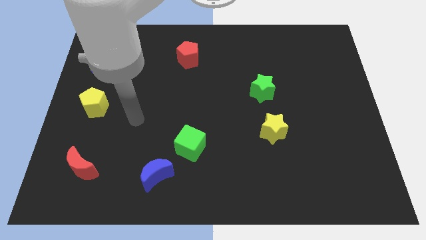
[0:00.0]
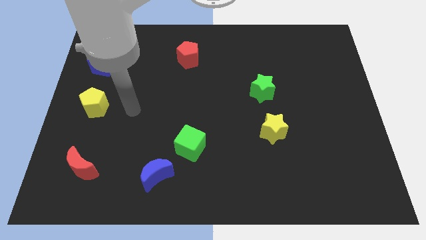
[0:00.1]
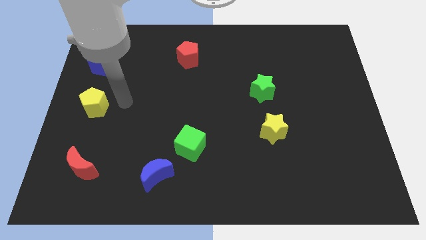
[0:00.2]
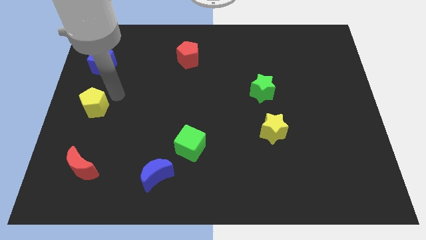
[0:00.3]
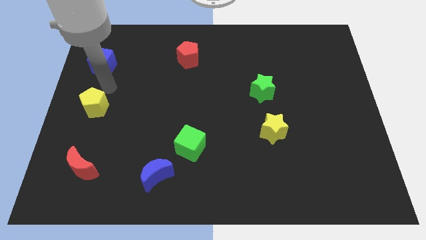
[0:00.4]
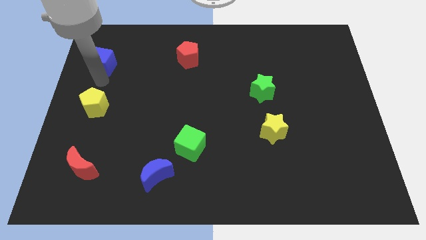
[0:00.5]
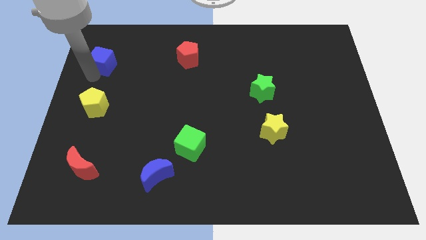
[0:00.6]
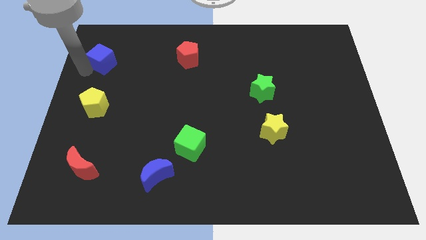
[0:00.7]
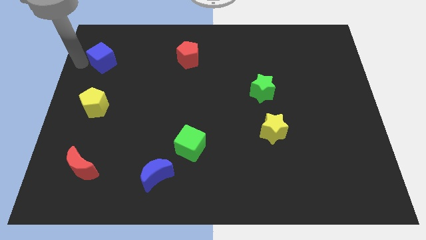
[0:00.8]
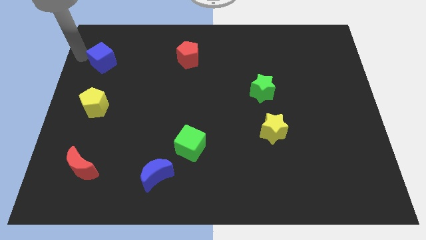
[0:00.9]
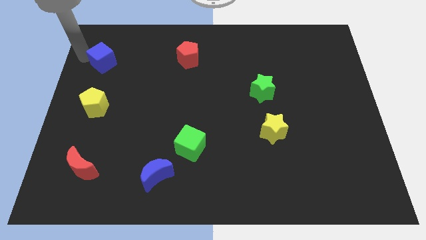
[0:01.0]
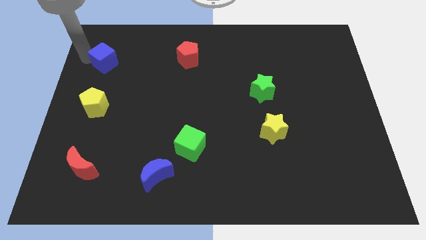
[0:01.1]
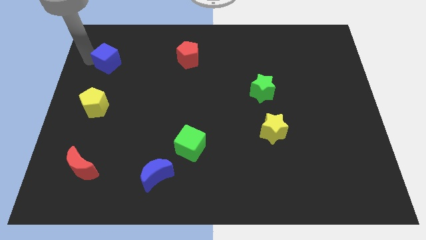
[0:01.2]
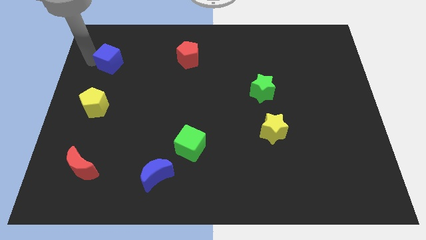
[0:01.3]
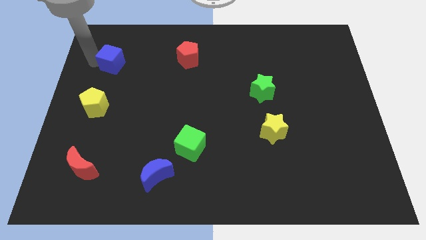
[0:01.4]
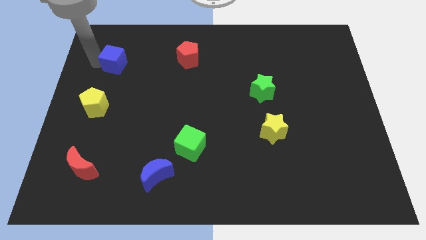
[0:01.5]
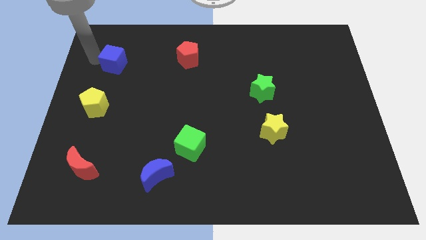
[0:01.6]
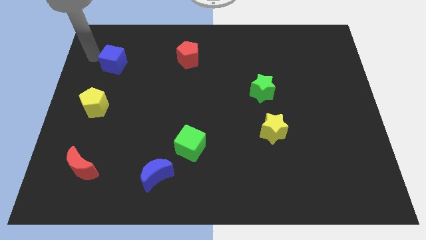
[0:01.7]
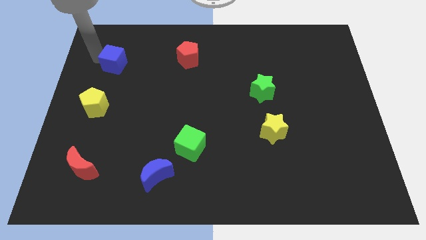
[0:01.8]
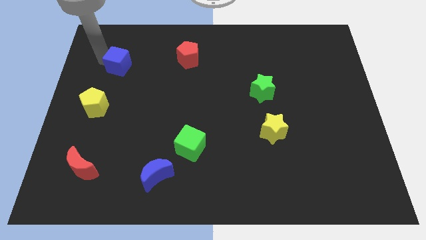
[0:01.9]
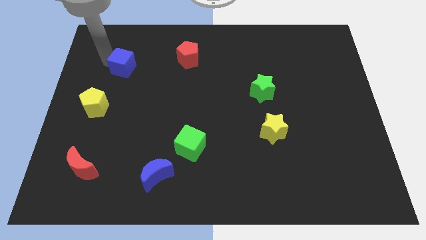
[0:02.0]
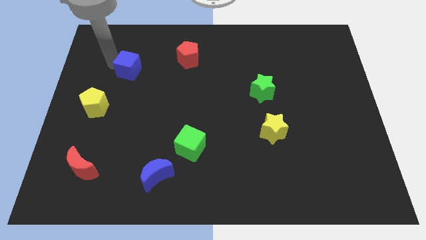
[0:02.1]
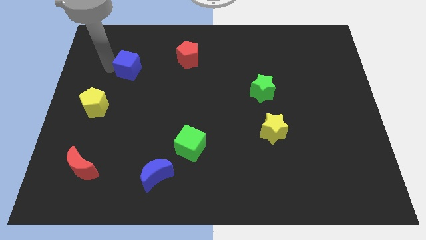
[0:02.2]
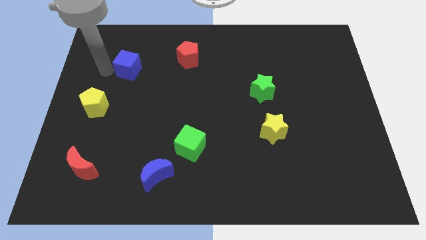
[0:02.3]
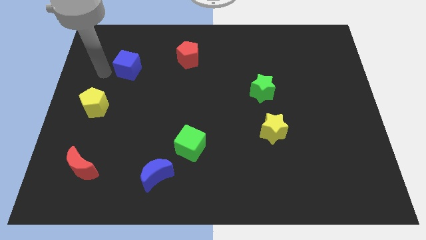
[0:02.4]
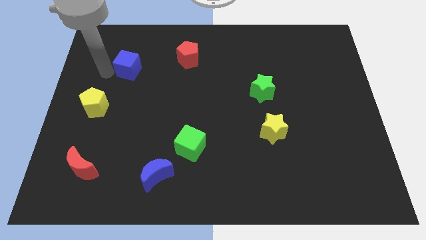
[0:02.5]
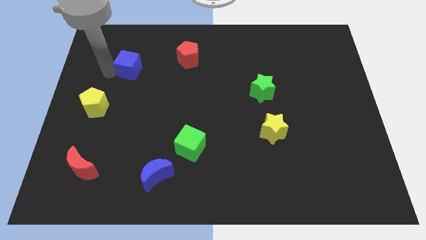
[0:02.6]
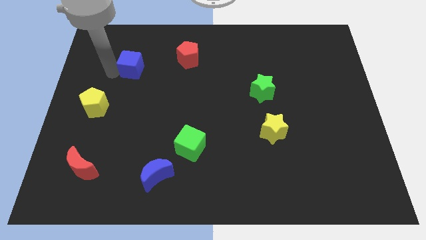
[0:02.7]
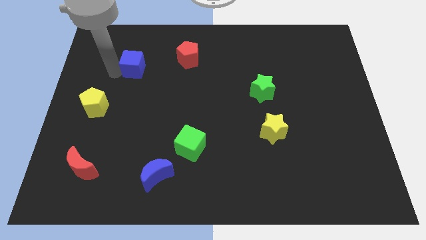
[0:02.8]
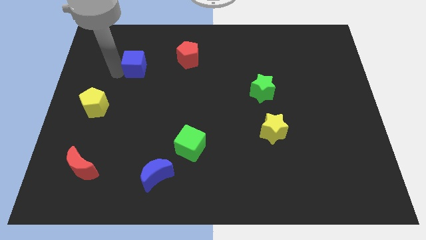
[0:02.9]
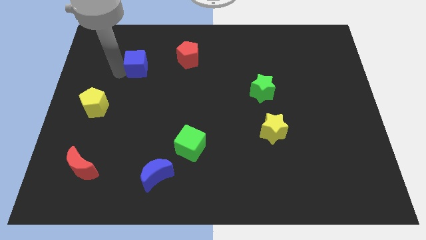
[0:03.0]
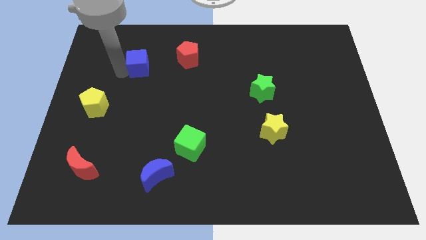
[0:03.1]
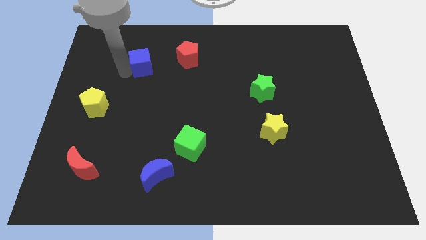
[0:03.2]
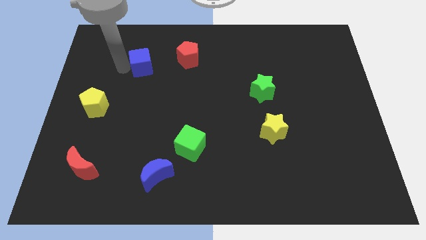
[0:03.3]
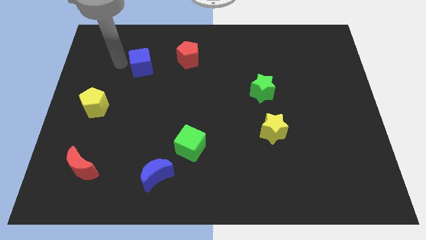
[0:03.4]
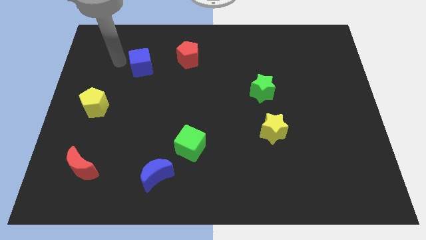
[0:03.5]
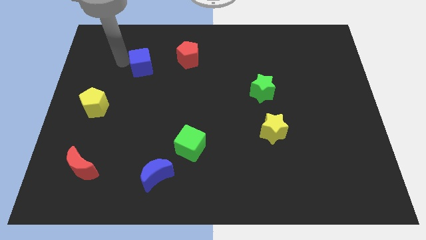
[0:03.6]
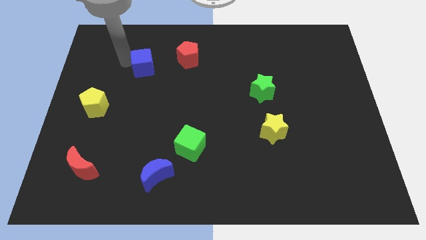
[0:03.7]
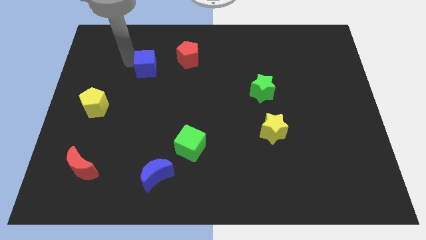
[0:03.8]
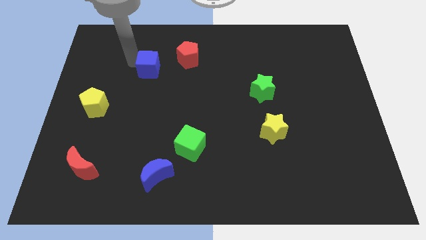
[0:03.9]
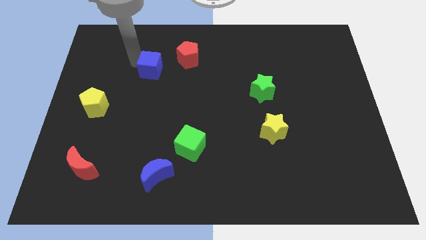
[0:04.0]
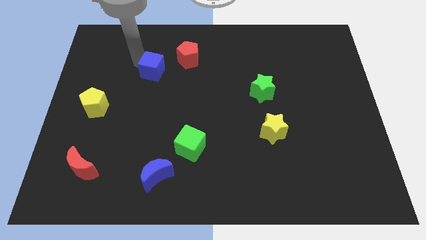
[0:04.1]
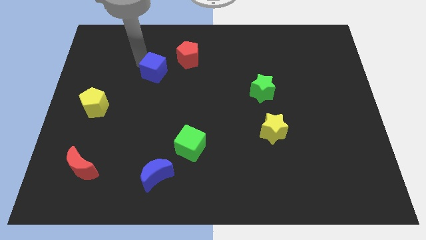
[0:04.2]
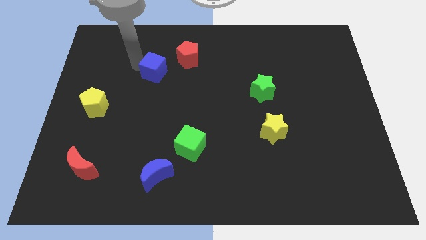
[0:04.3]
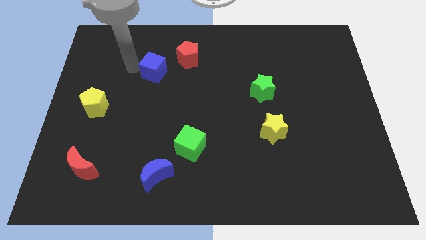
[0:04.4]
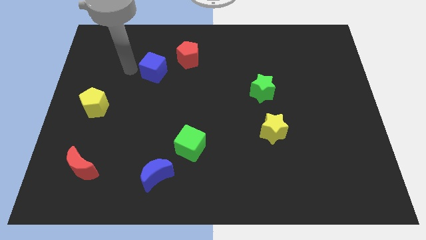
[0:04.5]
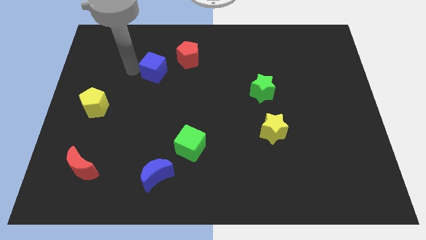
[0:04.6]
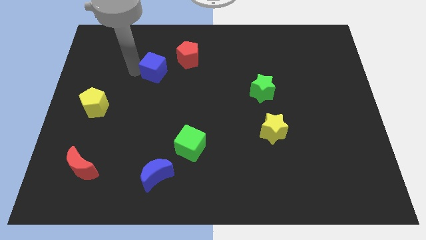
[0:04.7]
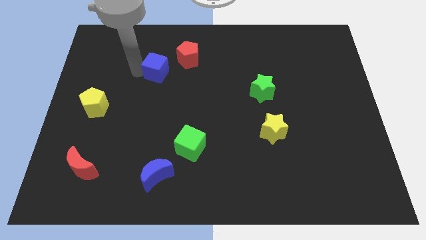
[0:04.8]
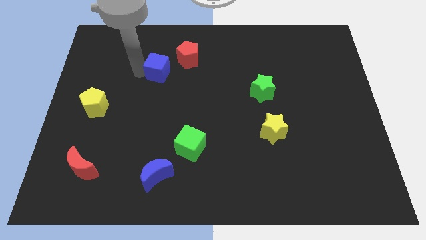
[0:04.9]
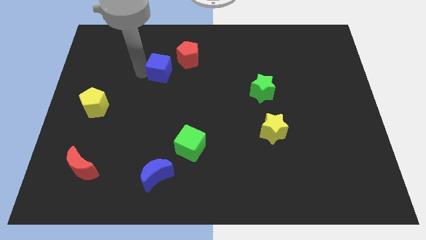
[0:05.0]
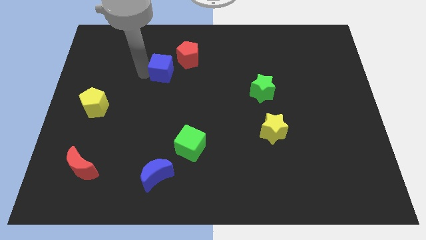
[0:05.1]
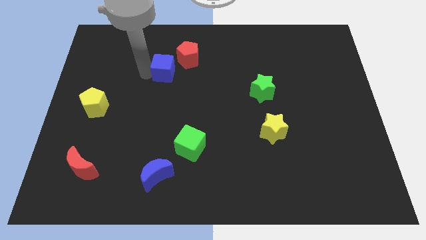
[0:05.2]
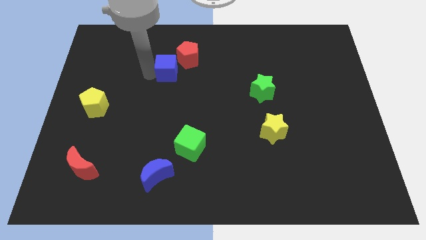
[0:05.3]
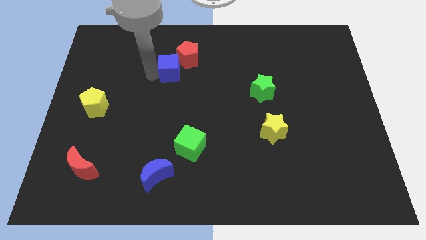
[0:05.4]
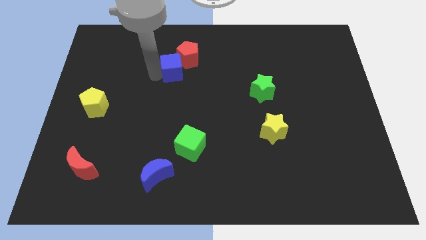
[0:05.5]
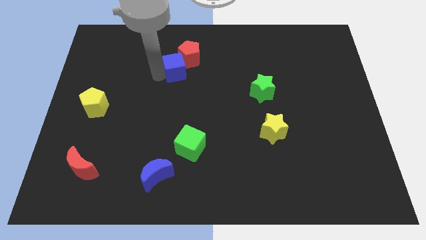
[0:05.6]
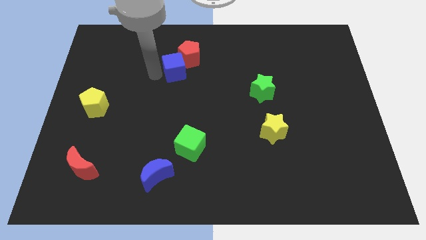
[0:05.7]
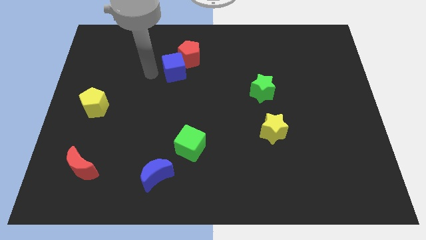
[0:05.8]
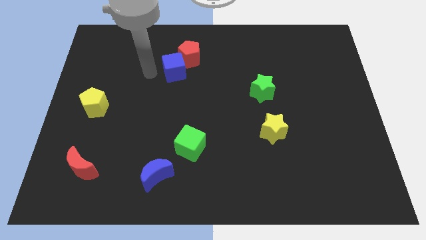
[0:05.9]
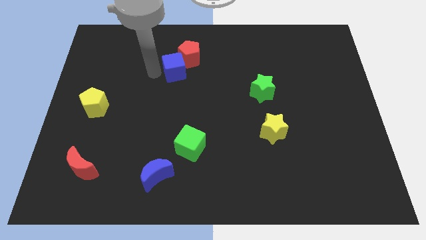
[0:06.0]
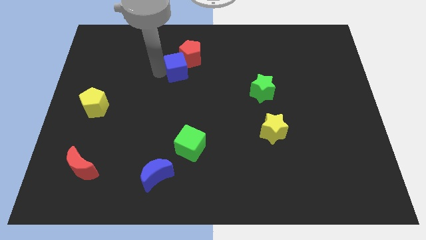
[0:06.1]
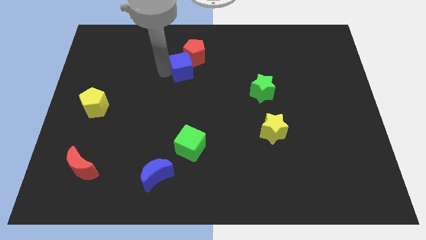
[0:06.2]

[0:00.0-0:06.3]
slide the blue cube right

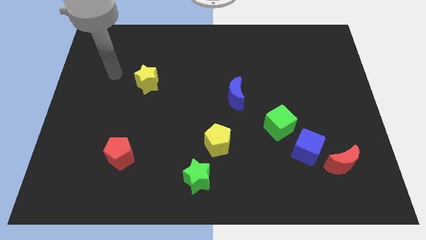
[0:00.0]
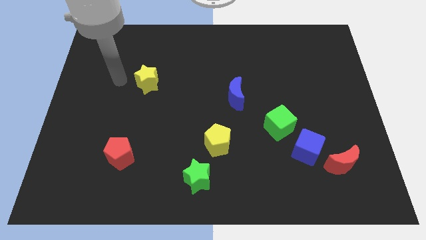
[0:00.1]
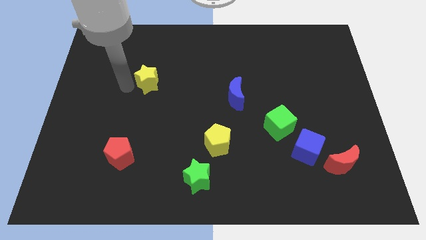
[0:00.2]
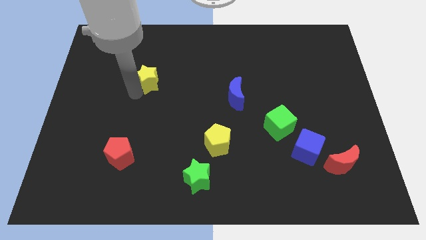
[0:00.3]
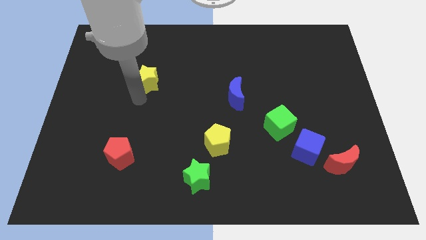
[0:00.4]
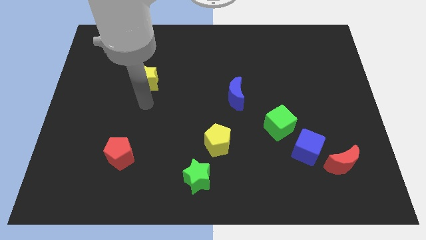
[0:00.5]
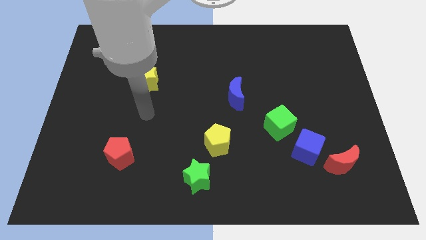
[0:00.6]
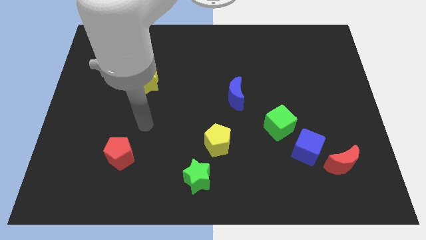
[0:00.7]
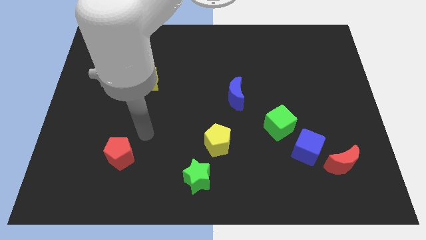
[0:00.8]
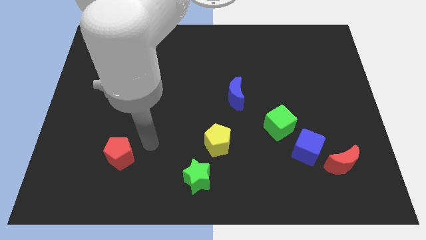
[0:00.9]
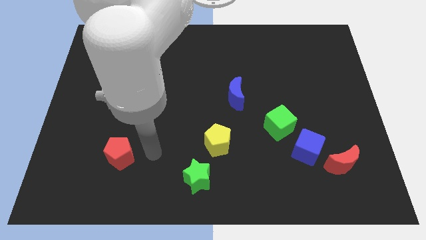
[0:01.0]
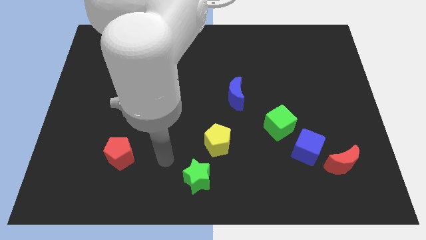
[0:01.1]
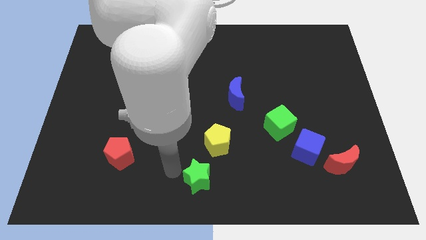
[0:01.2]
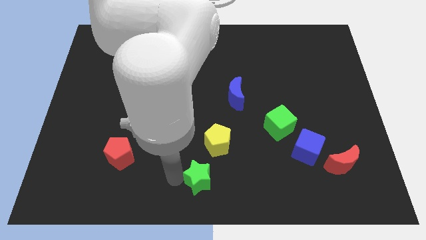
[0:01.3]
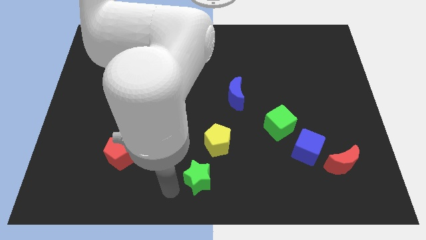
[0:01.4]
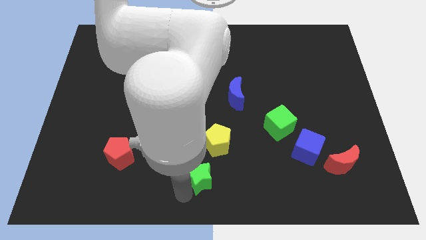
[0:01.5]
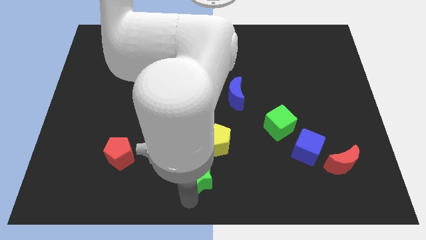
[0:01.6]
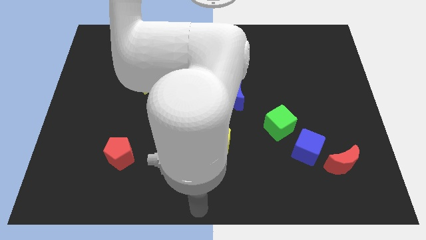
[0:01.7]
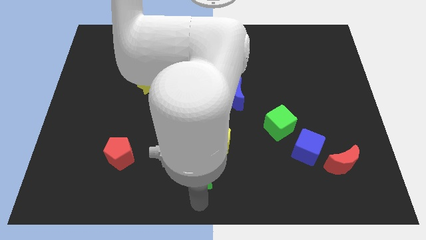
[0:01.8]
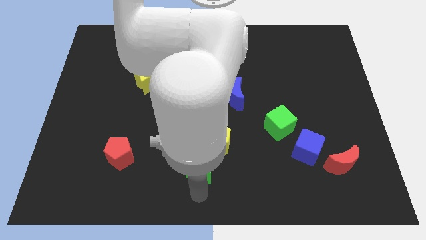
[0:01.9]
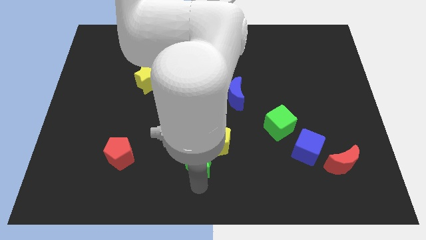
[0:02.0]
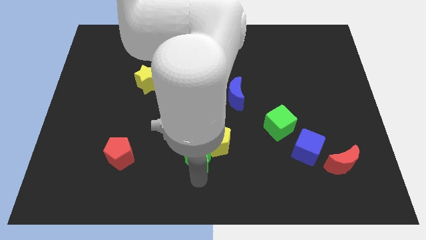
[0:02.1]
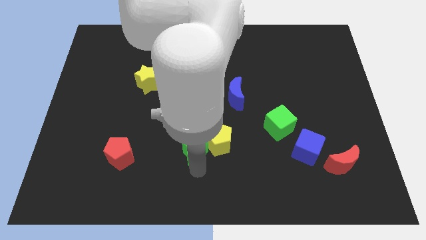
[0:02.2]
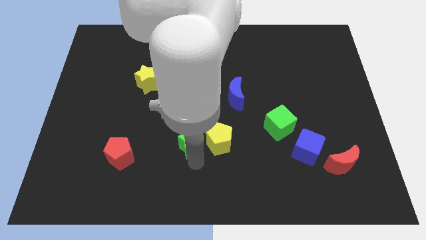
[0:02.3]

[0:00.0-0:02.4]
move the green star upwards a bit
